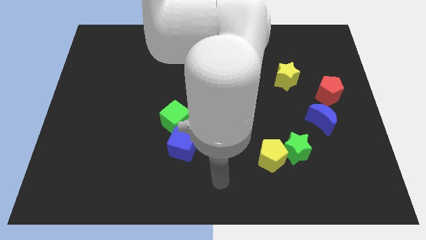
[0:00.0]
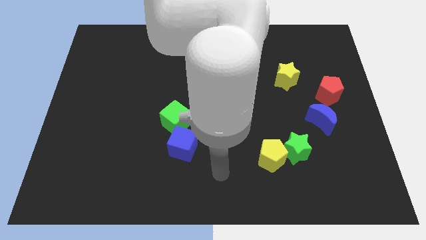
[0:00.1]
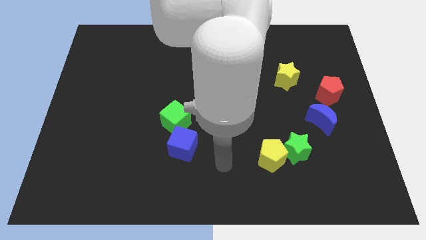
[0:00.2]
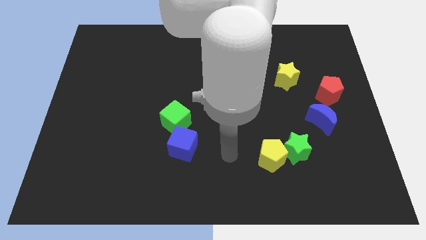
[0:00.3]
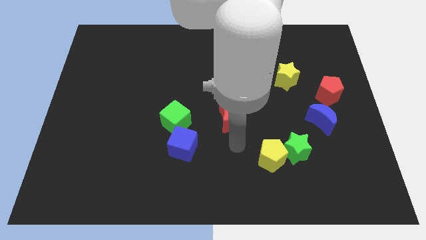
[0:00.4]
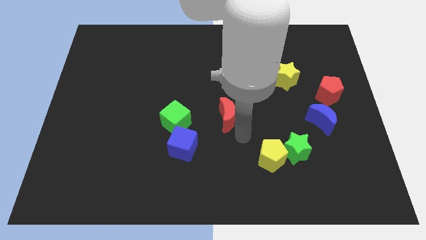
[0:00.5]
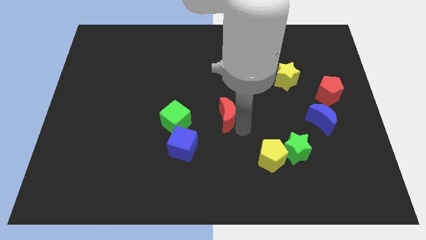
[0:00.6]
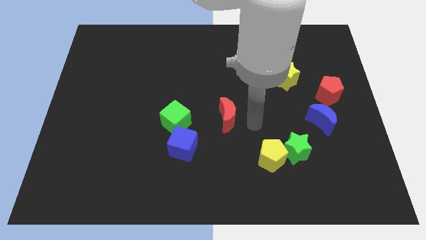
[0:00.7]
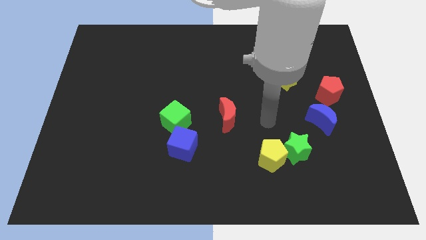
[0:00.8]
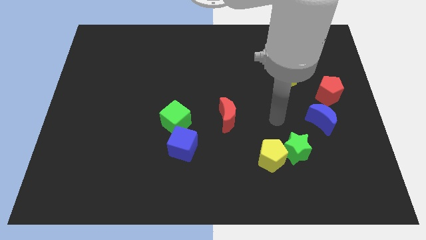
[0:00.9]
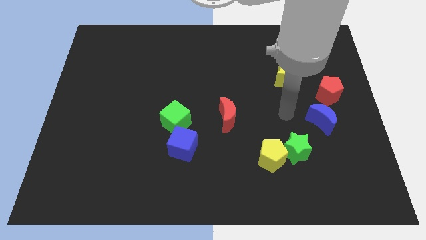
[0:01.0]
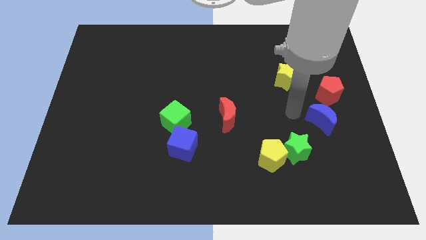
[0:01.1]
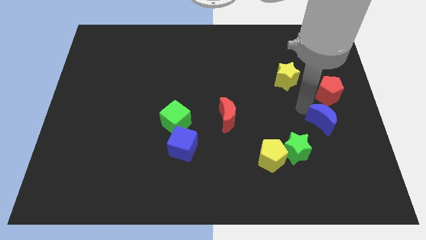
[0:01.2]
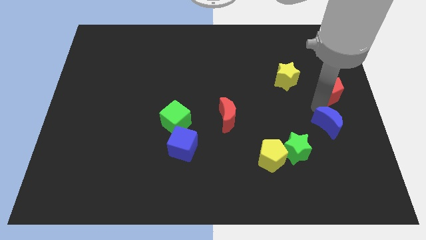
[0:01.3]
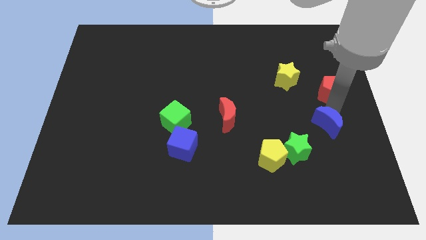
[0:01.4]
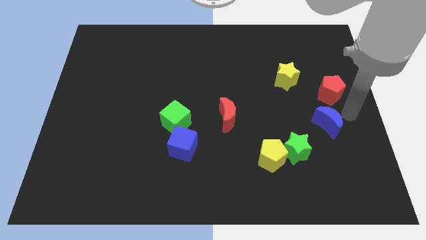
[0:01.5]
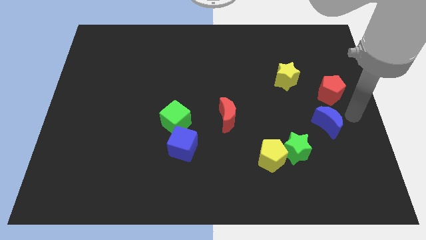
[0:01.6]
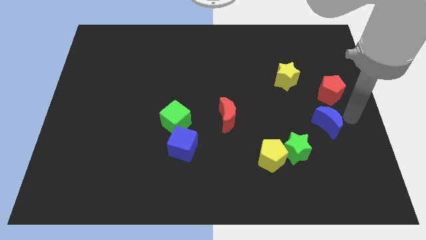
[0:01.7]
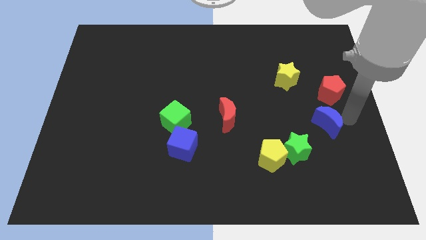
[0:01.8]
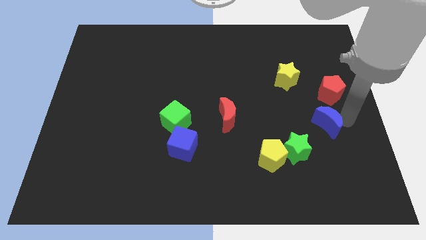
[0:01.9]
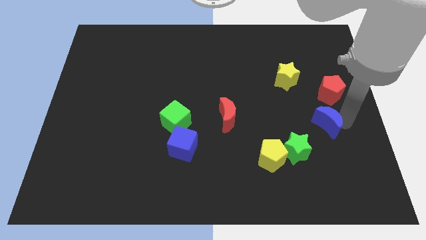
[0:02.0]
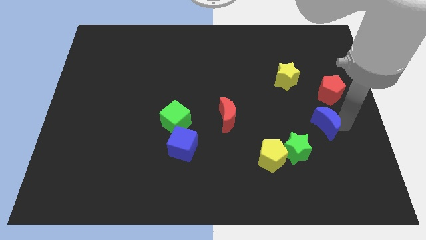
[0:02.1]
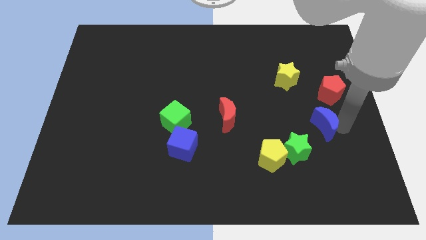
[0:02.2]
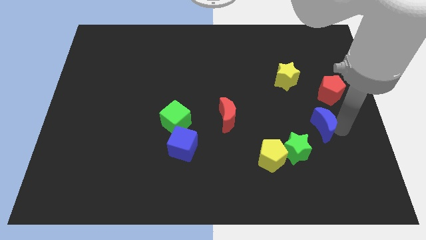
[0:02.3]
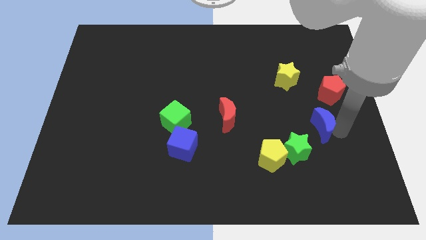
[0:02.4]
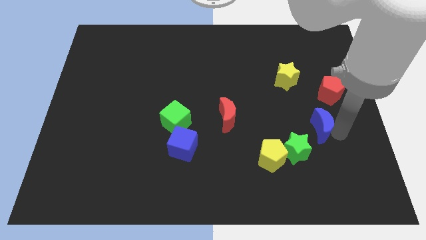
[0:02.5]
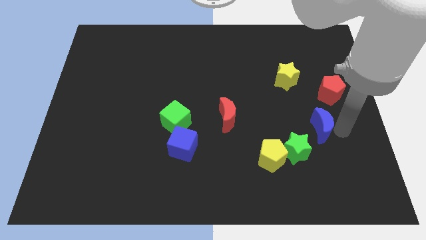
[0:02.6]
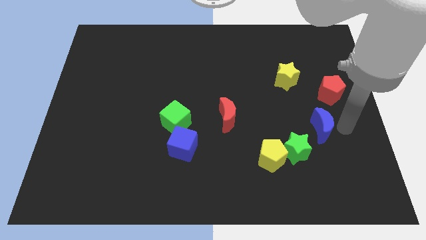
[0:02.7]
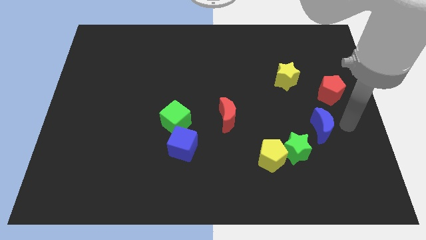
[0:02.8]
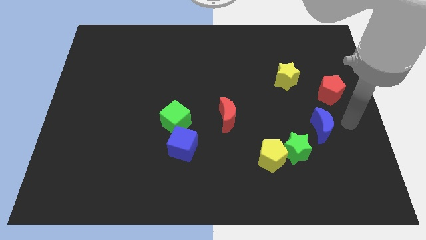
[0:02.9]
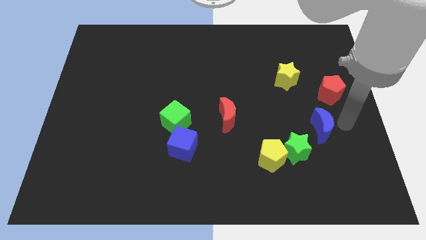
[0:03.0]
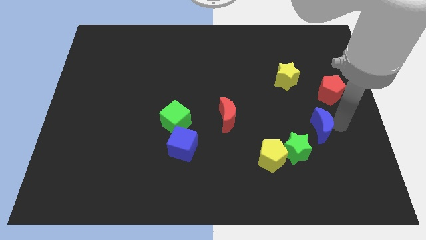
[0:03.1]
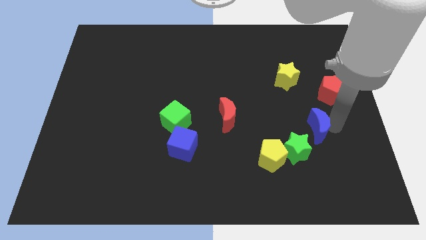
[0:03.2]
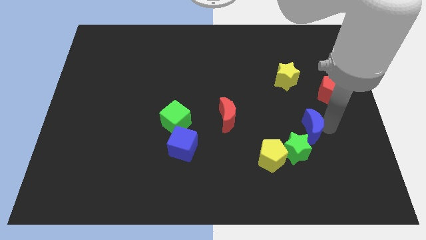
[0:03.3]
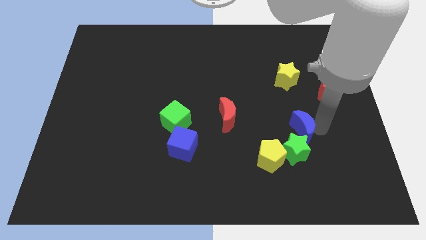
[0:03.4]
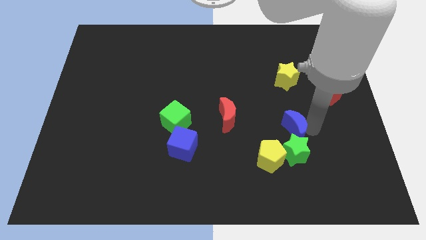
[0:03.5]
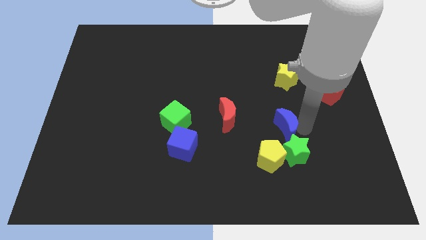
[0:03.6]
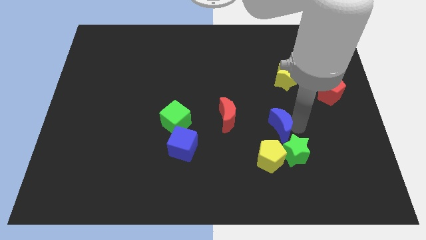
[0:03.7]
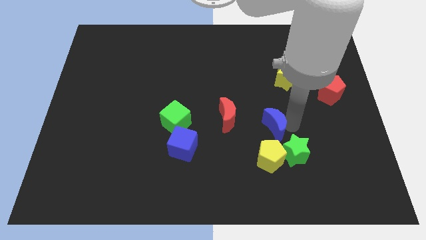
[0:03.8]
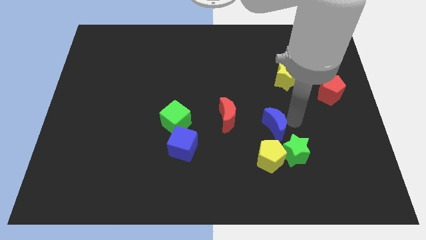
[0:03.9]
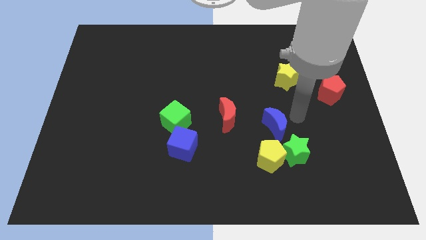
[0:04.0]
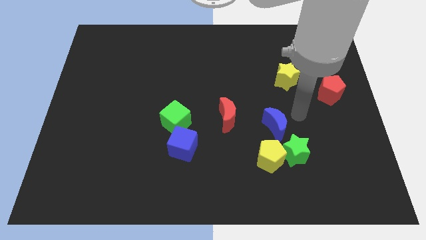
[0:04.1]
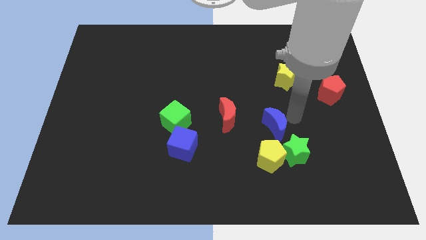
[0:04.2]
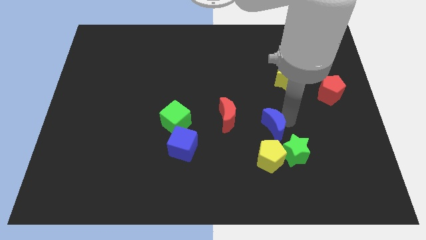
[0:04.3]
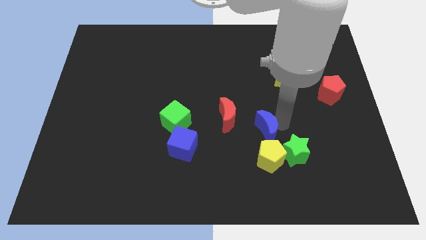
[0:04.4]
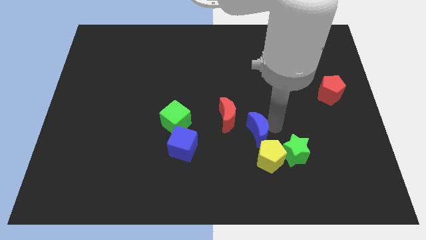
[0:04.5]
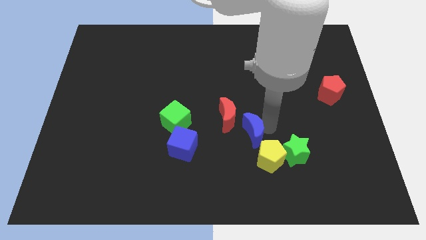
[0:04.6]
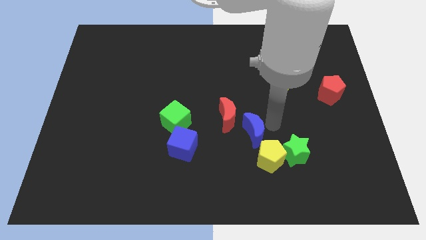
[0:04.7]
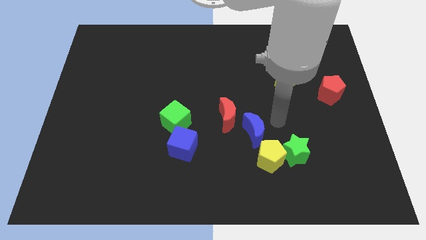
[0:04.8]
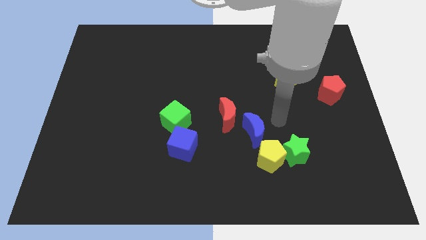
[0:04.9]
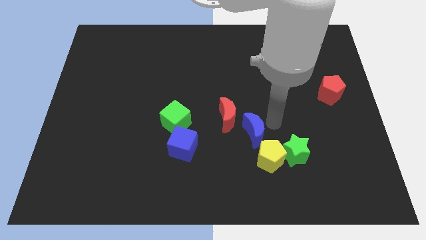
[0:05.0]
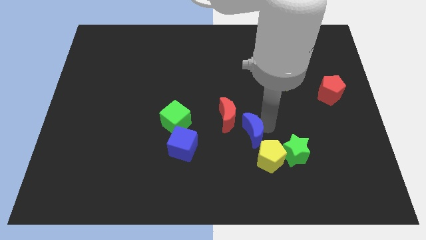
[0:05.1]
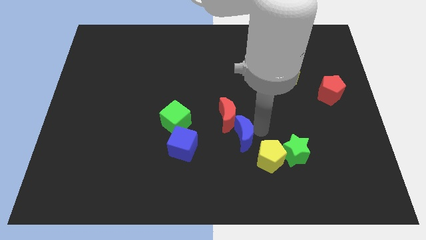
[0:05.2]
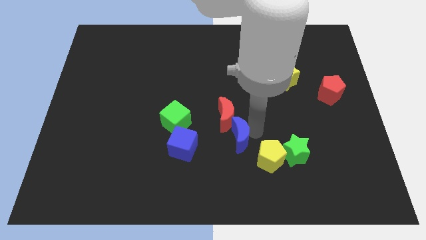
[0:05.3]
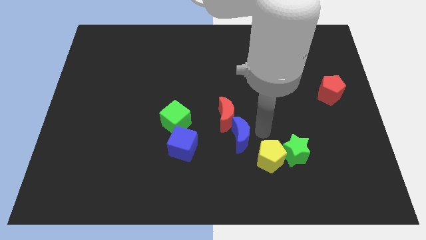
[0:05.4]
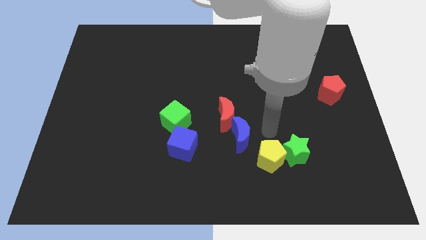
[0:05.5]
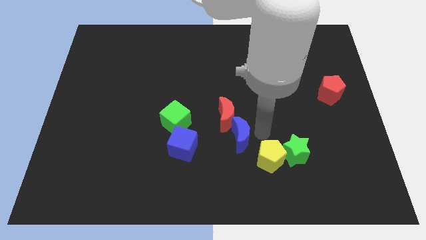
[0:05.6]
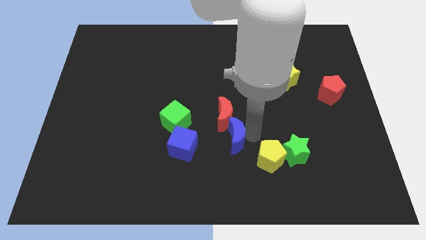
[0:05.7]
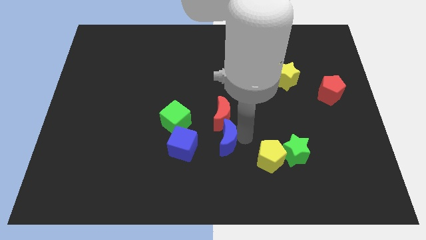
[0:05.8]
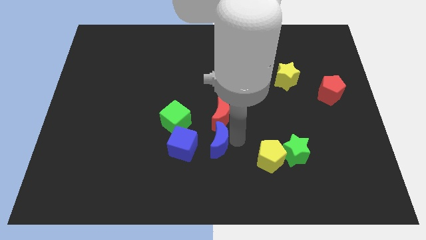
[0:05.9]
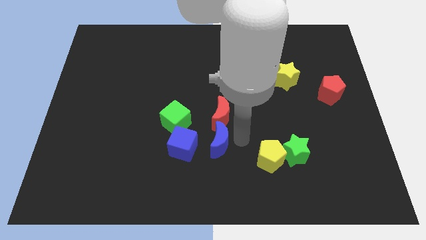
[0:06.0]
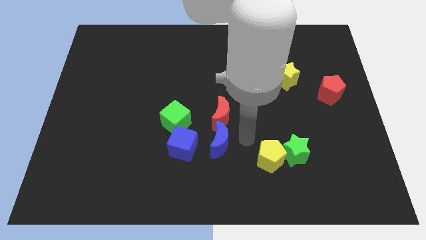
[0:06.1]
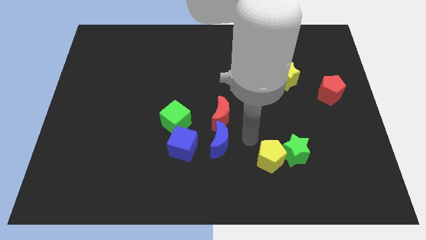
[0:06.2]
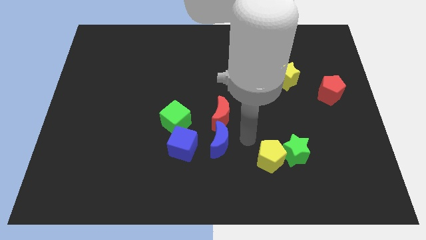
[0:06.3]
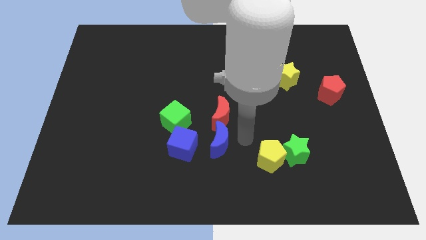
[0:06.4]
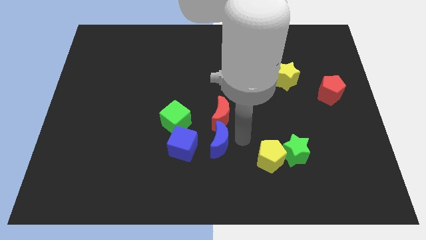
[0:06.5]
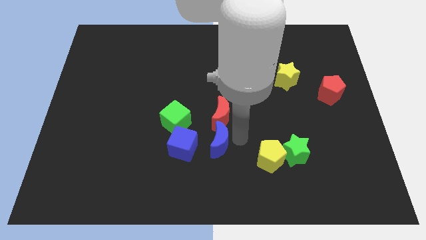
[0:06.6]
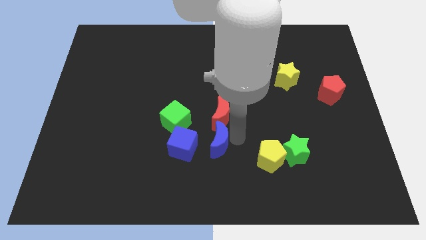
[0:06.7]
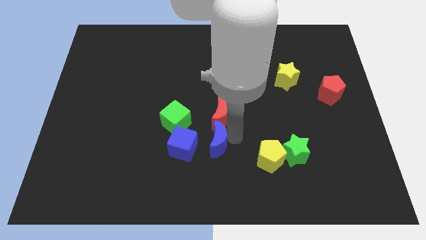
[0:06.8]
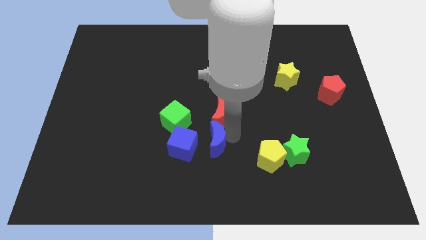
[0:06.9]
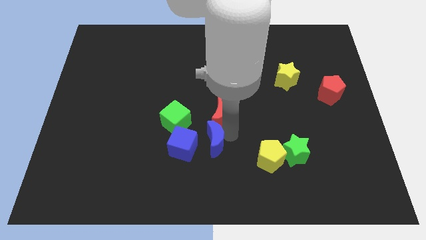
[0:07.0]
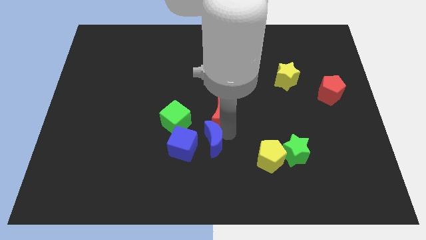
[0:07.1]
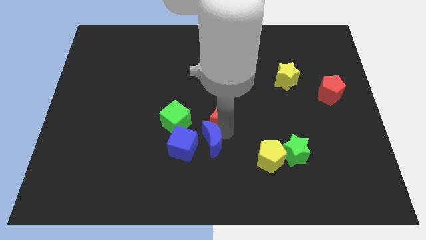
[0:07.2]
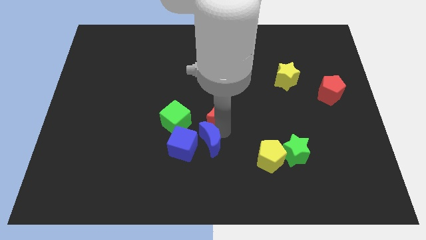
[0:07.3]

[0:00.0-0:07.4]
slide the blue moon to the blue cube
